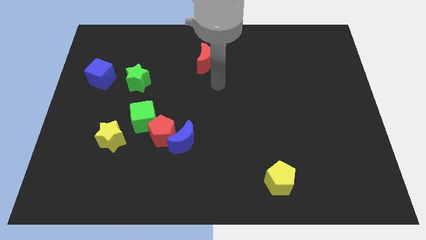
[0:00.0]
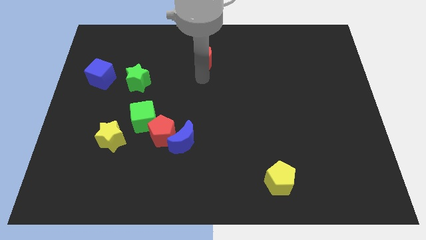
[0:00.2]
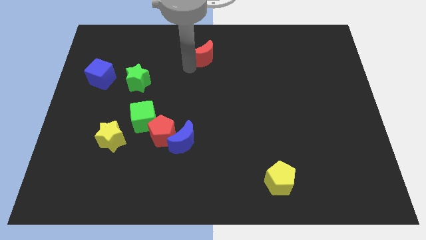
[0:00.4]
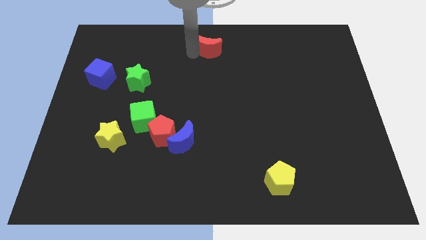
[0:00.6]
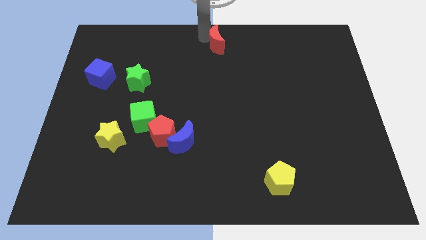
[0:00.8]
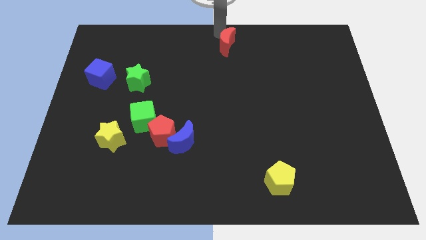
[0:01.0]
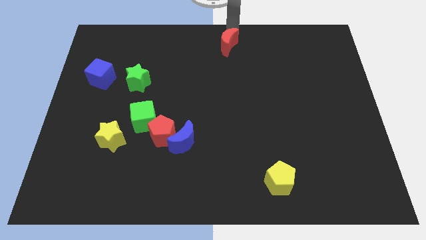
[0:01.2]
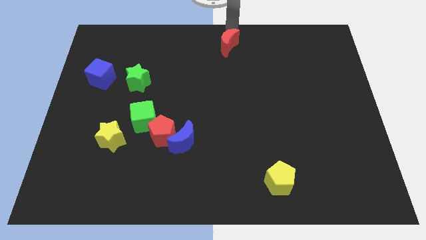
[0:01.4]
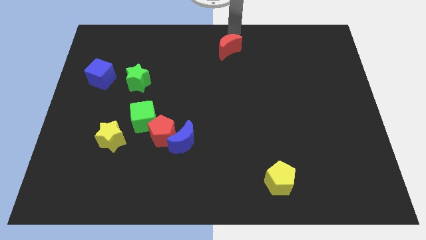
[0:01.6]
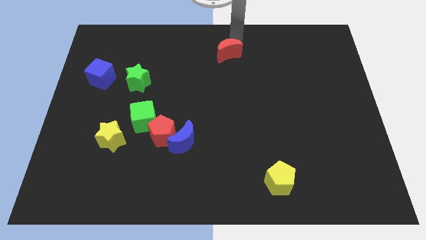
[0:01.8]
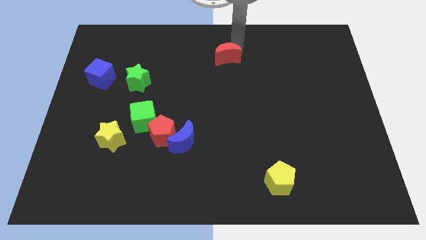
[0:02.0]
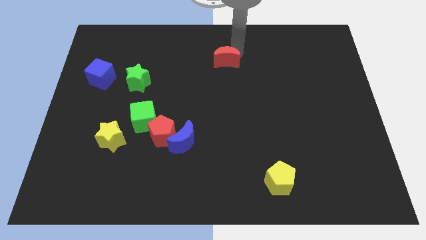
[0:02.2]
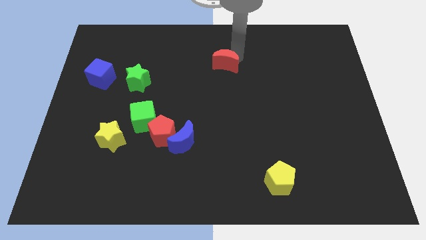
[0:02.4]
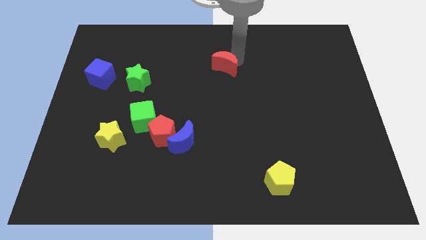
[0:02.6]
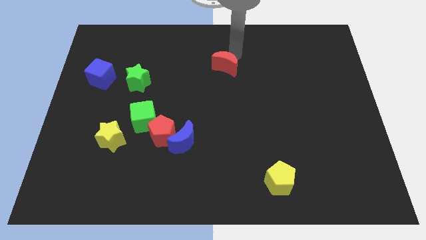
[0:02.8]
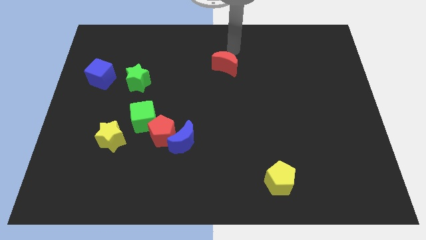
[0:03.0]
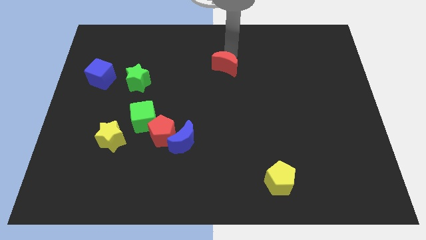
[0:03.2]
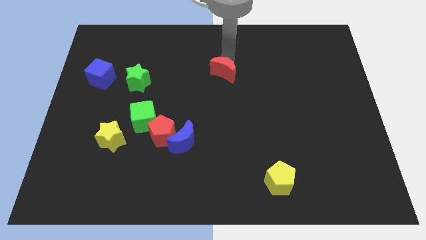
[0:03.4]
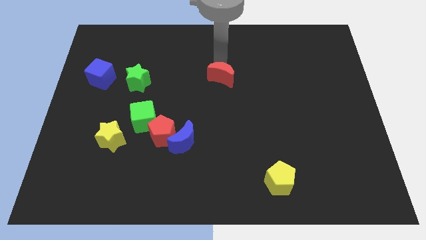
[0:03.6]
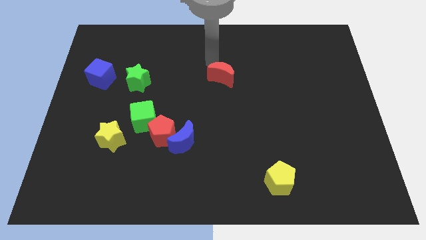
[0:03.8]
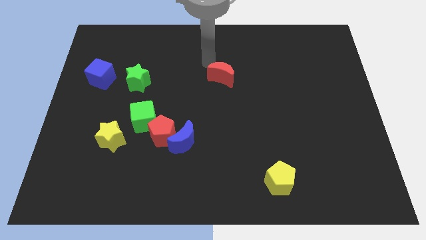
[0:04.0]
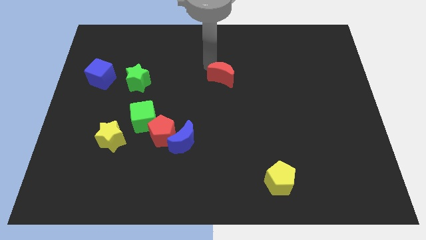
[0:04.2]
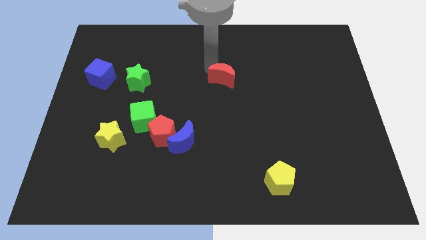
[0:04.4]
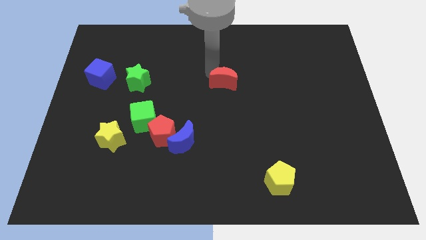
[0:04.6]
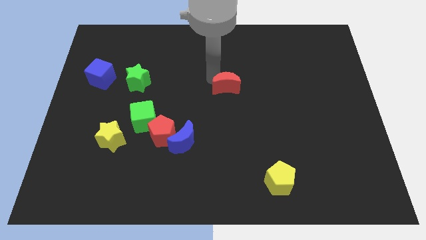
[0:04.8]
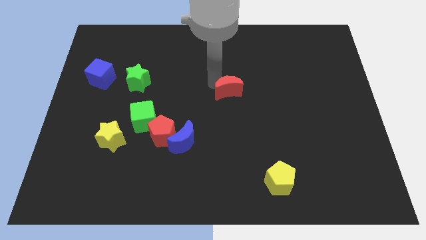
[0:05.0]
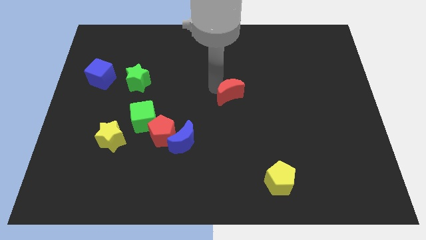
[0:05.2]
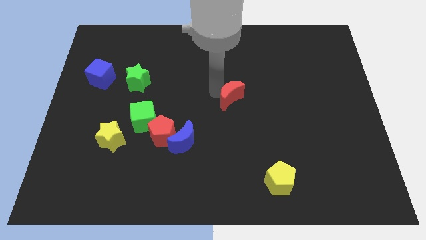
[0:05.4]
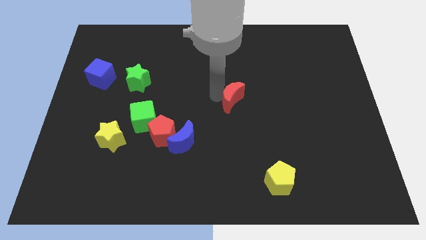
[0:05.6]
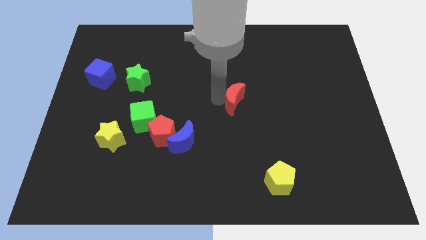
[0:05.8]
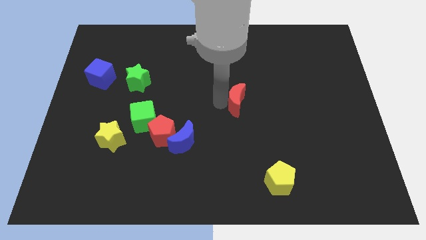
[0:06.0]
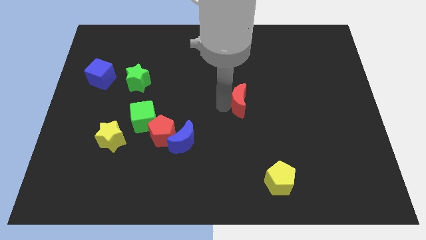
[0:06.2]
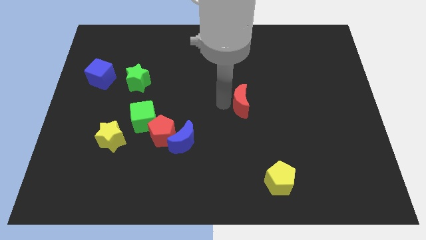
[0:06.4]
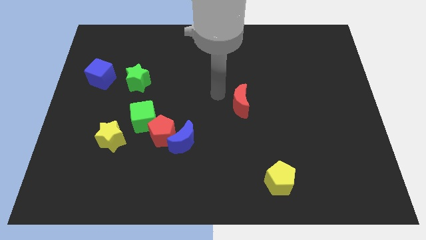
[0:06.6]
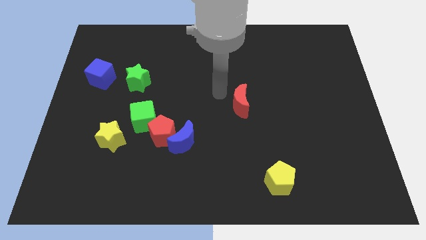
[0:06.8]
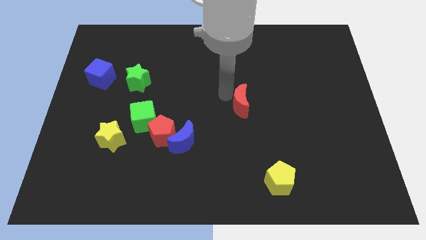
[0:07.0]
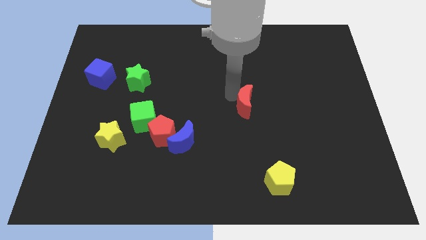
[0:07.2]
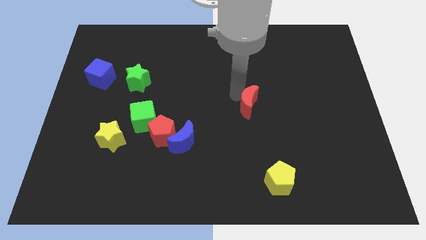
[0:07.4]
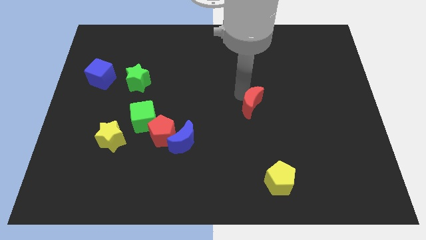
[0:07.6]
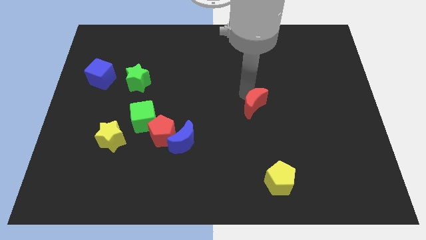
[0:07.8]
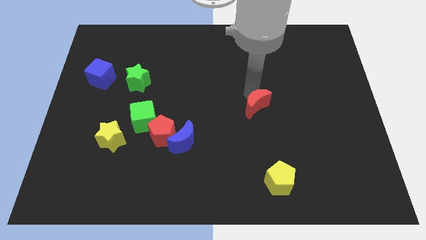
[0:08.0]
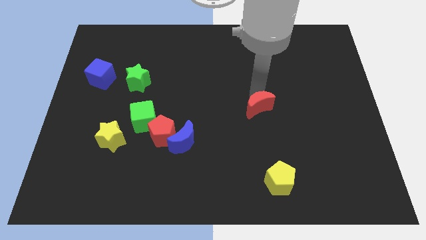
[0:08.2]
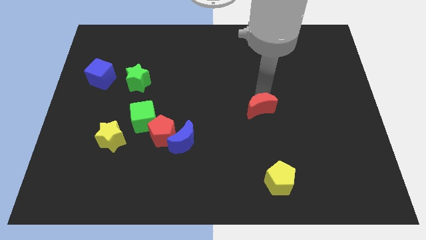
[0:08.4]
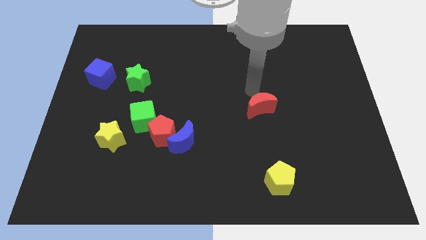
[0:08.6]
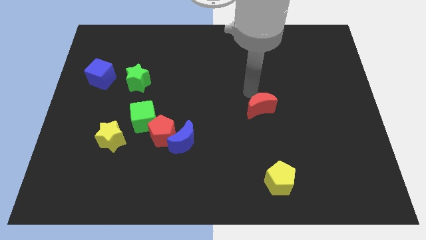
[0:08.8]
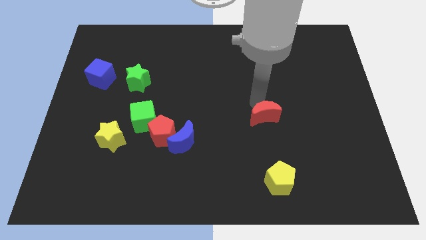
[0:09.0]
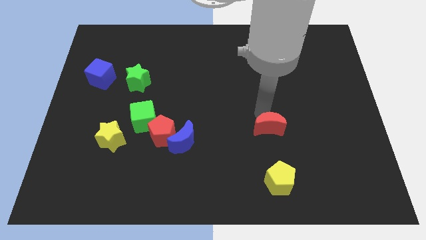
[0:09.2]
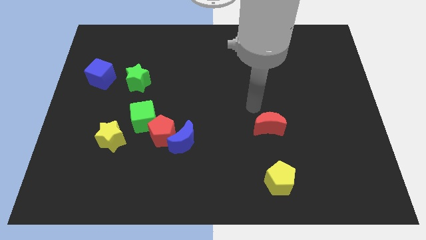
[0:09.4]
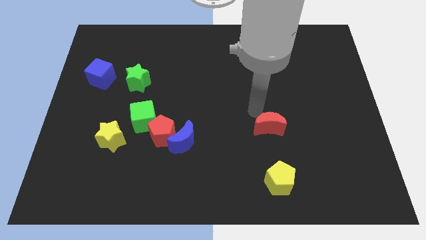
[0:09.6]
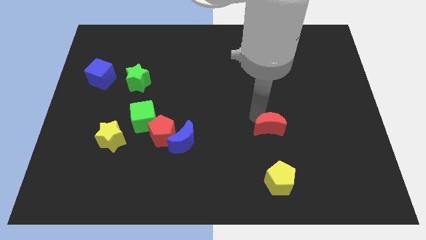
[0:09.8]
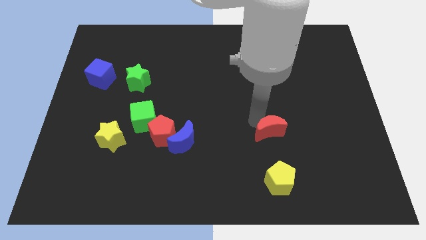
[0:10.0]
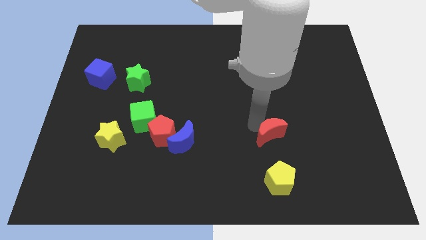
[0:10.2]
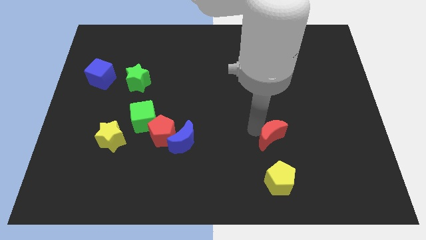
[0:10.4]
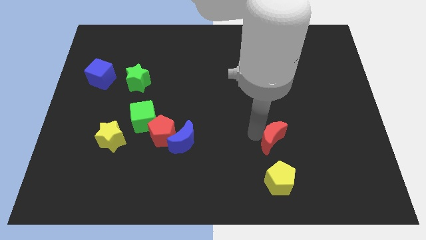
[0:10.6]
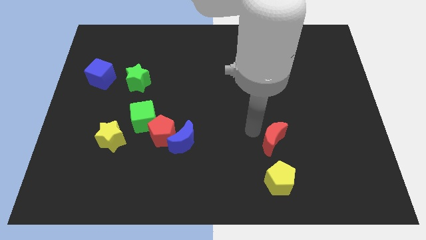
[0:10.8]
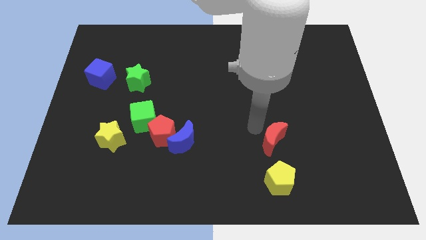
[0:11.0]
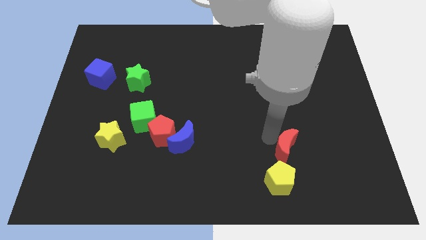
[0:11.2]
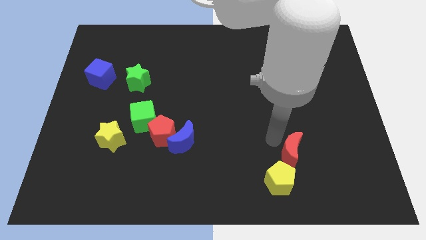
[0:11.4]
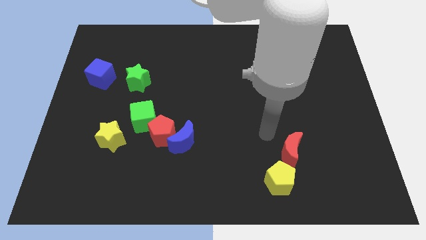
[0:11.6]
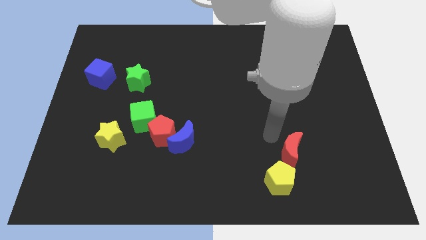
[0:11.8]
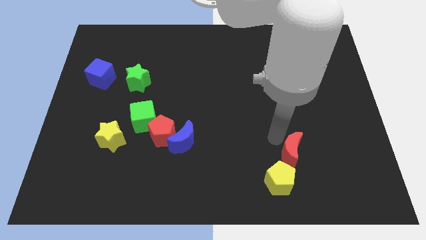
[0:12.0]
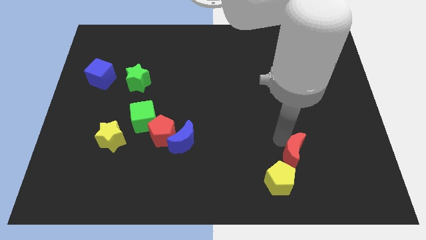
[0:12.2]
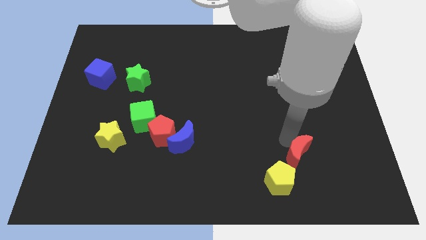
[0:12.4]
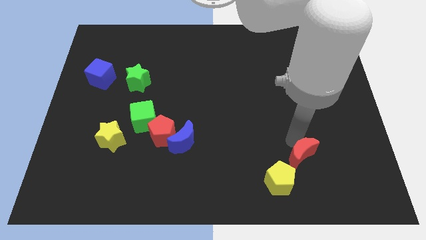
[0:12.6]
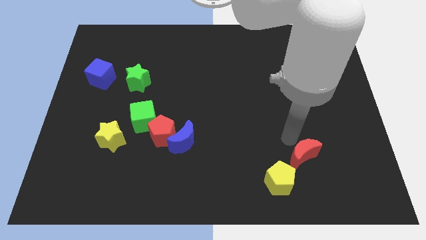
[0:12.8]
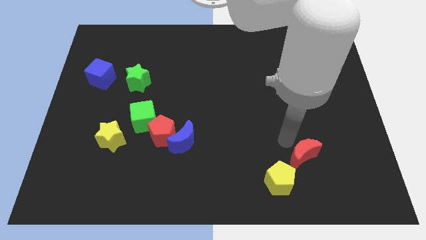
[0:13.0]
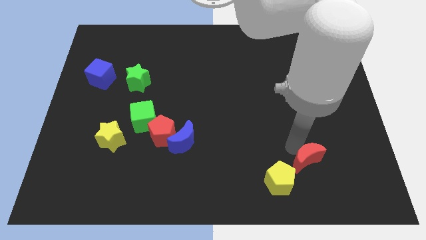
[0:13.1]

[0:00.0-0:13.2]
push the red moon just right of the yellow pentagon
